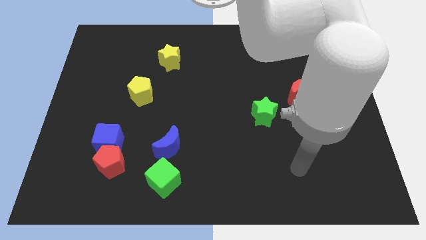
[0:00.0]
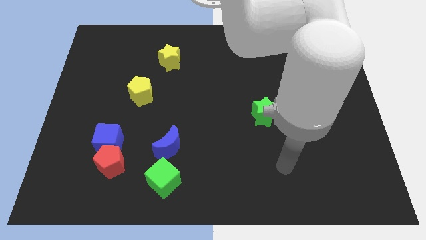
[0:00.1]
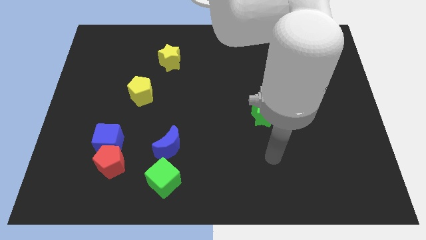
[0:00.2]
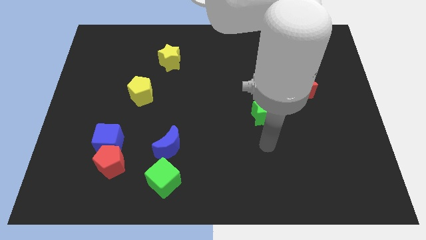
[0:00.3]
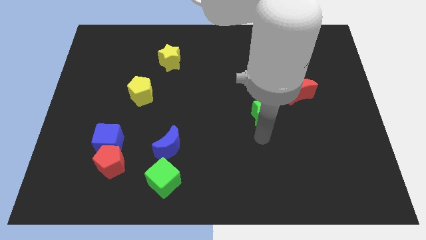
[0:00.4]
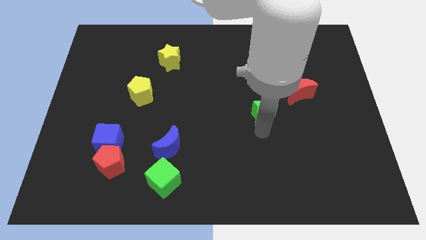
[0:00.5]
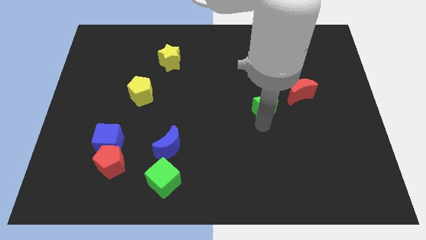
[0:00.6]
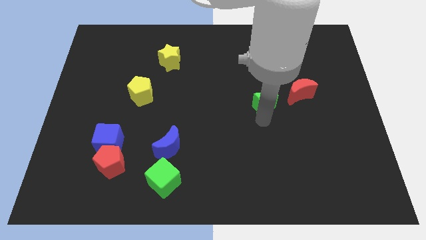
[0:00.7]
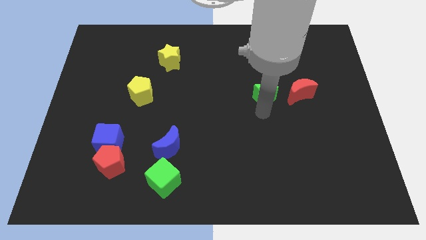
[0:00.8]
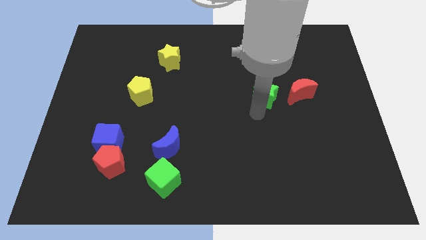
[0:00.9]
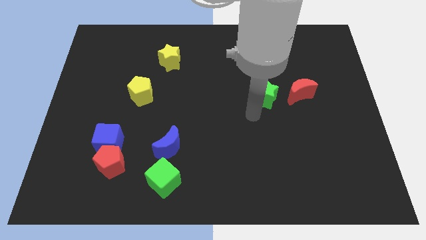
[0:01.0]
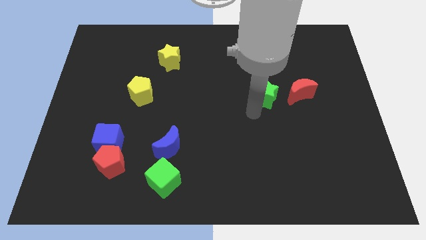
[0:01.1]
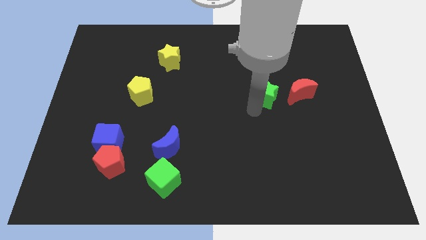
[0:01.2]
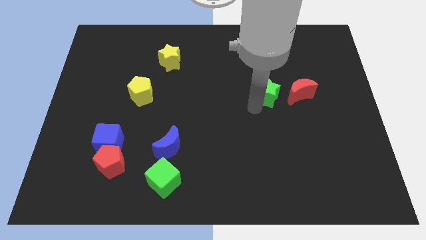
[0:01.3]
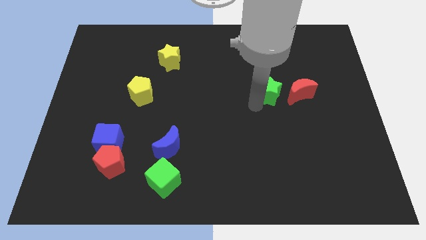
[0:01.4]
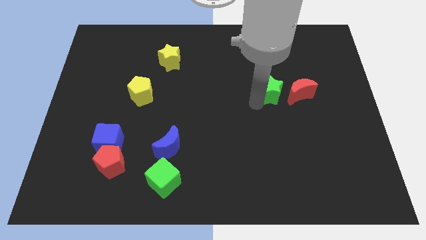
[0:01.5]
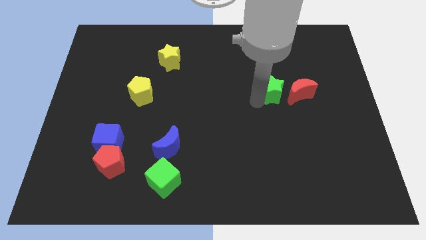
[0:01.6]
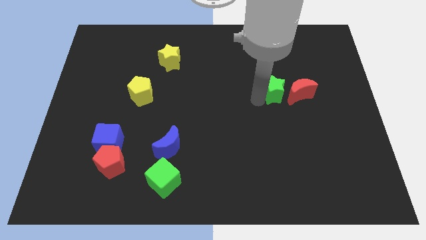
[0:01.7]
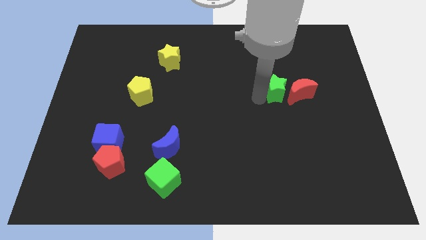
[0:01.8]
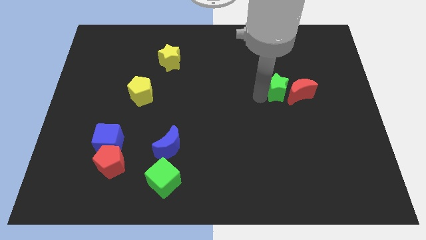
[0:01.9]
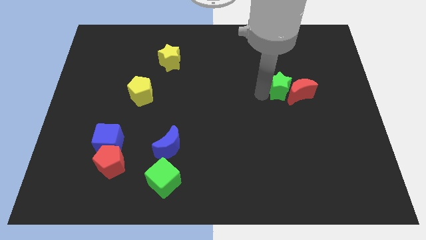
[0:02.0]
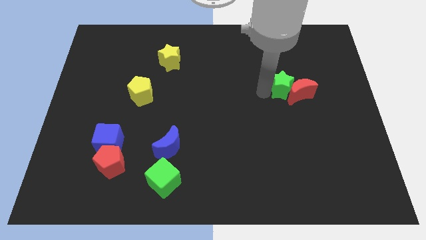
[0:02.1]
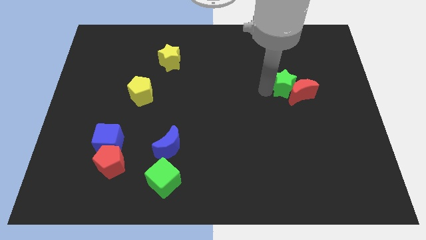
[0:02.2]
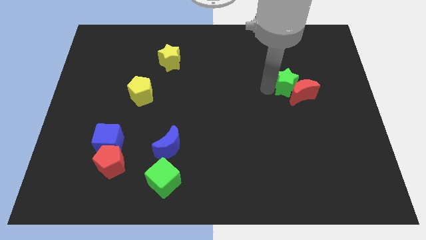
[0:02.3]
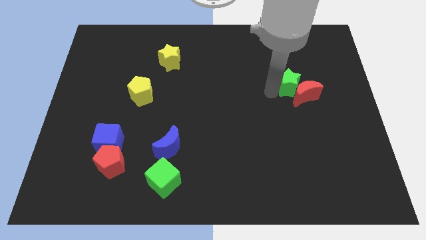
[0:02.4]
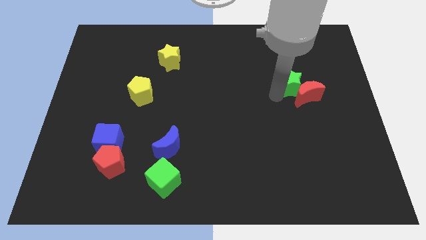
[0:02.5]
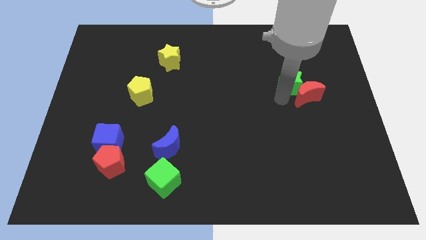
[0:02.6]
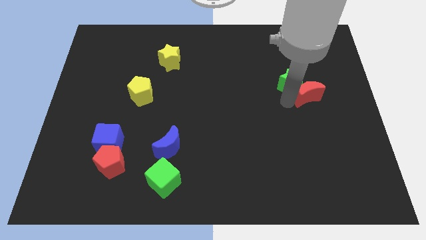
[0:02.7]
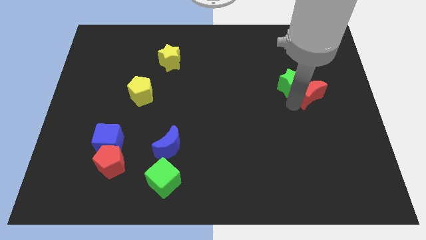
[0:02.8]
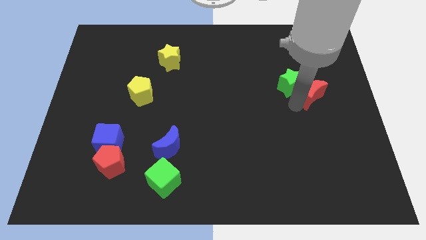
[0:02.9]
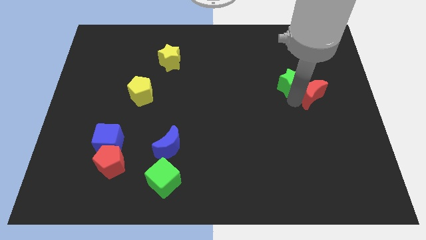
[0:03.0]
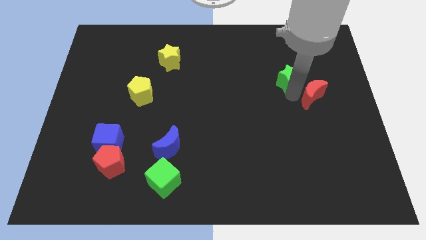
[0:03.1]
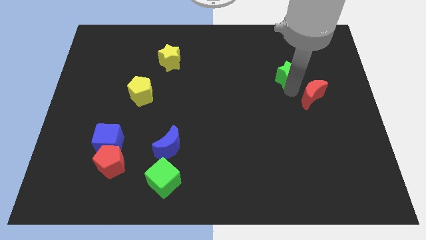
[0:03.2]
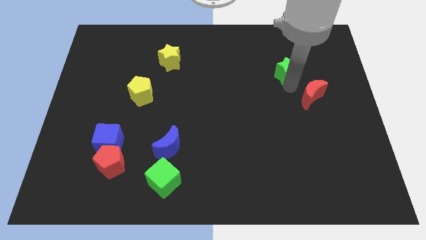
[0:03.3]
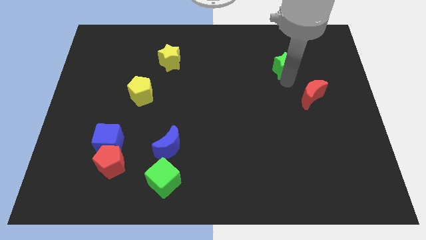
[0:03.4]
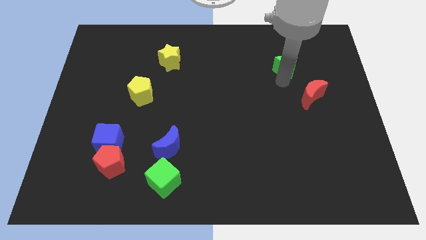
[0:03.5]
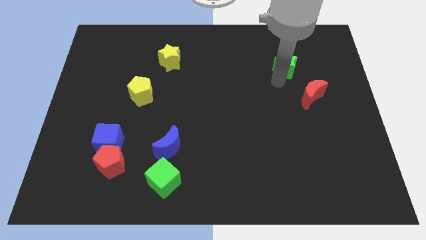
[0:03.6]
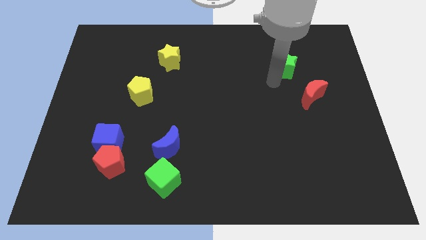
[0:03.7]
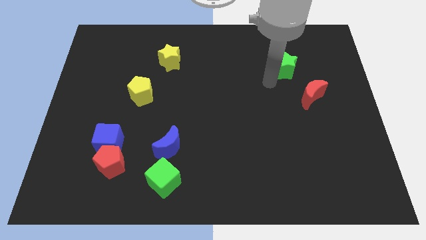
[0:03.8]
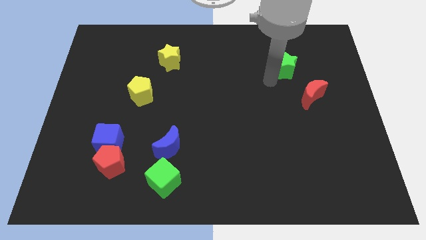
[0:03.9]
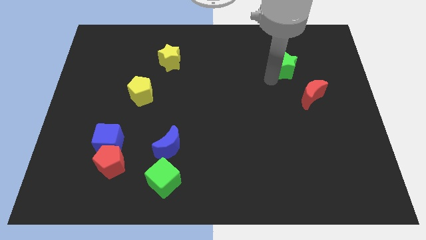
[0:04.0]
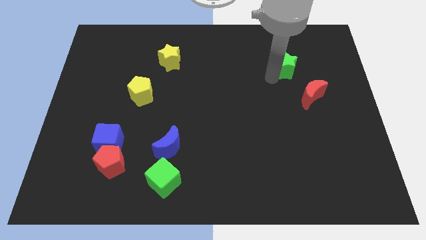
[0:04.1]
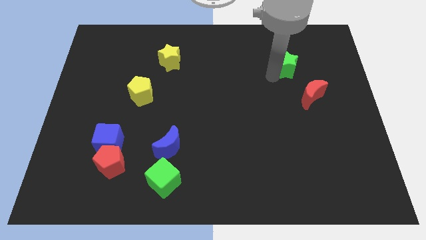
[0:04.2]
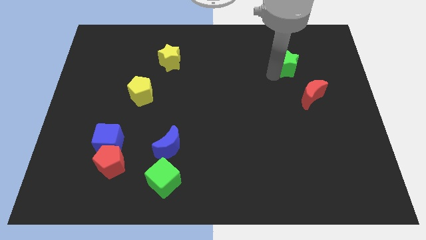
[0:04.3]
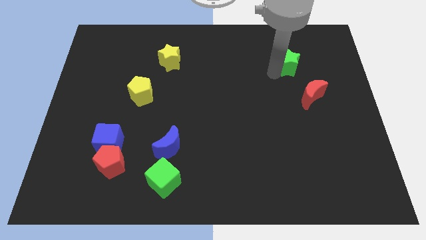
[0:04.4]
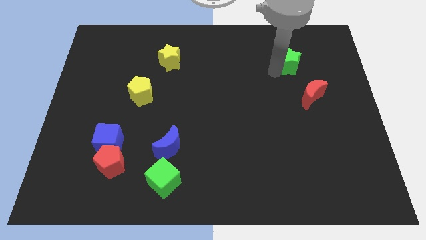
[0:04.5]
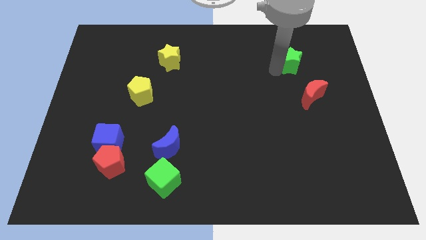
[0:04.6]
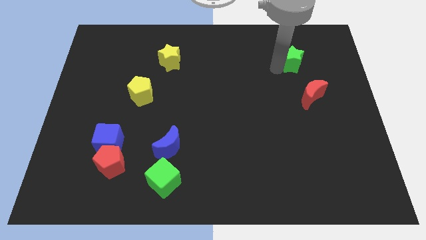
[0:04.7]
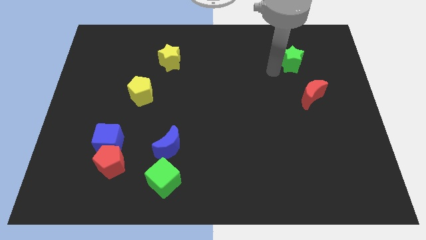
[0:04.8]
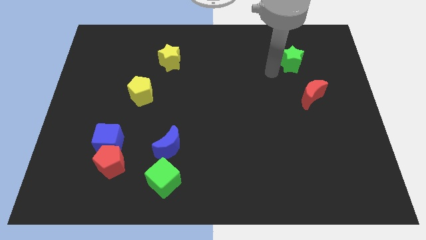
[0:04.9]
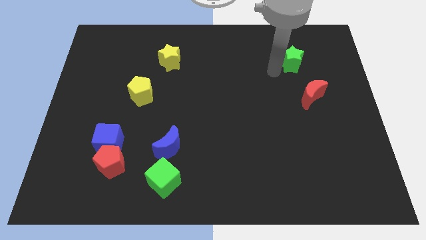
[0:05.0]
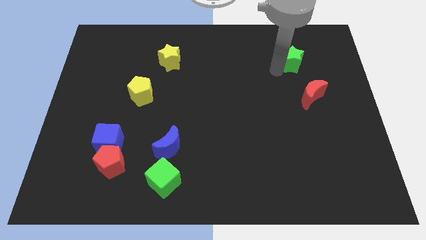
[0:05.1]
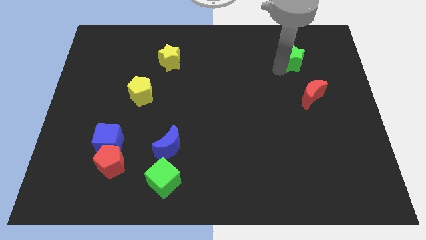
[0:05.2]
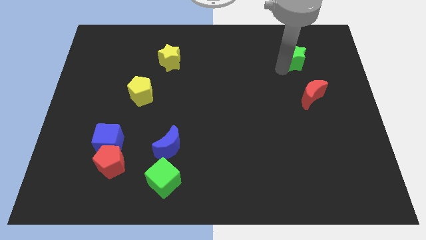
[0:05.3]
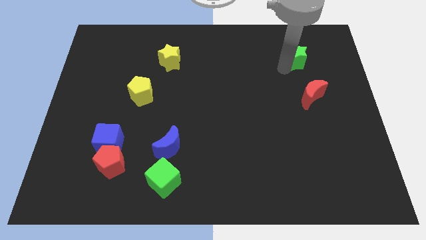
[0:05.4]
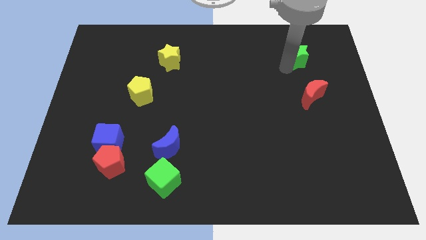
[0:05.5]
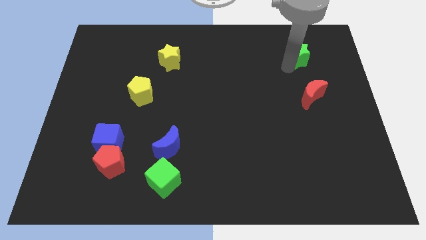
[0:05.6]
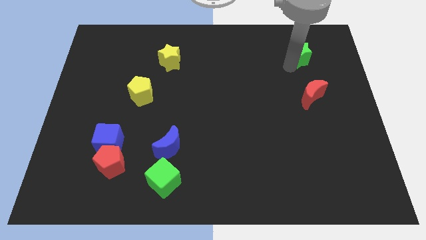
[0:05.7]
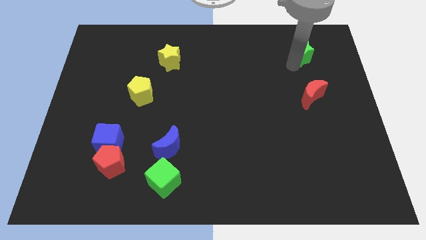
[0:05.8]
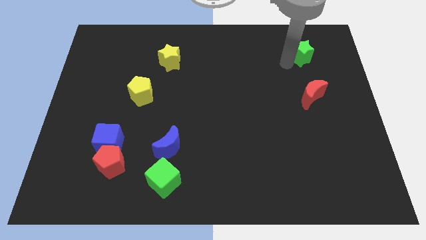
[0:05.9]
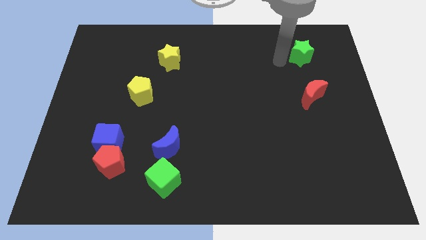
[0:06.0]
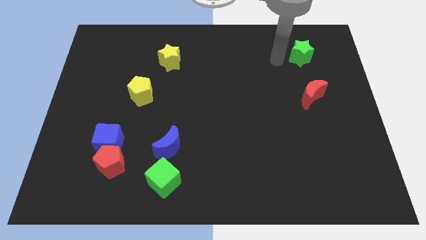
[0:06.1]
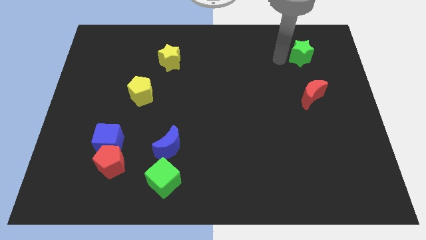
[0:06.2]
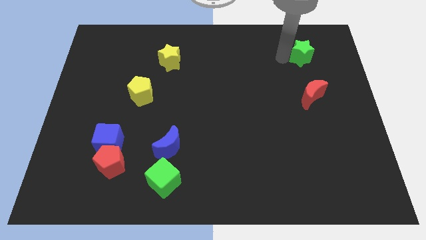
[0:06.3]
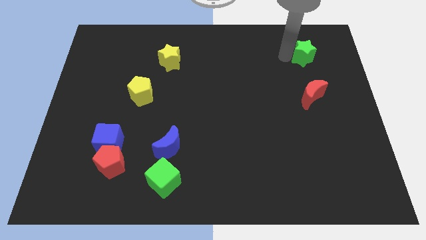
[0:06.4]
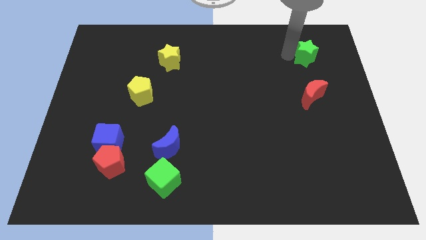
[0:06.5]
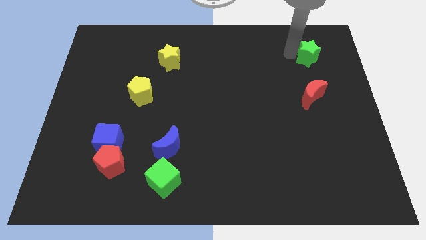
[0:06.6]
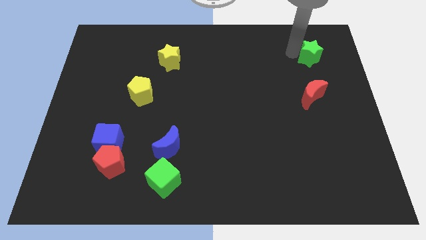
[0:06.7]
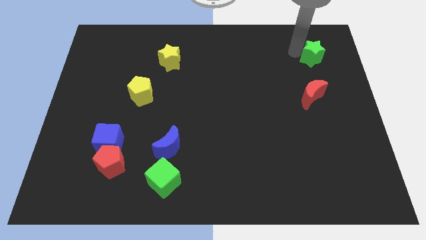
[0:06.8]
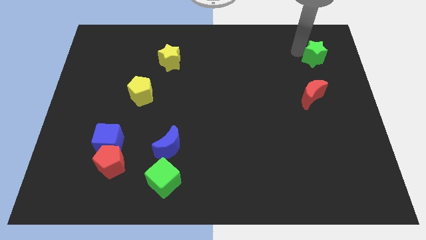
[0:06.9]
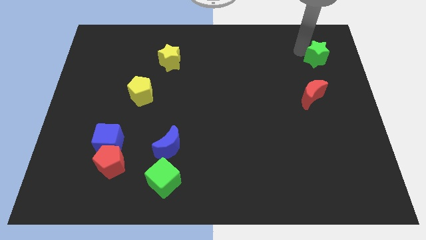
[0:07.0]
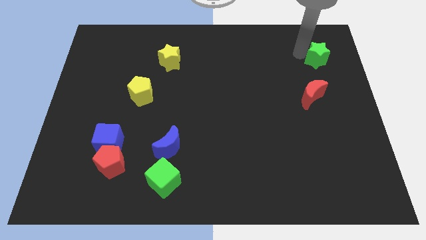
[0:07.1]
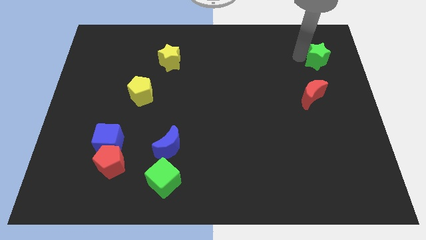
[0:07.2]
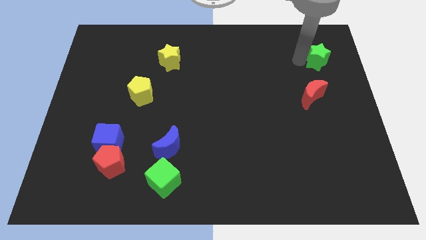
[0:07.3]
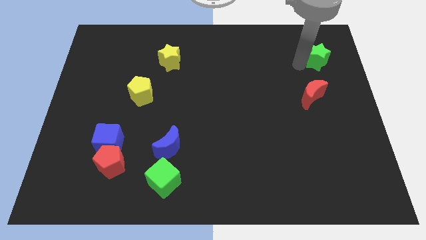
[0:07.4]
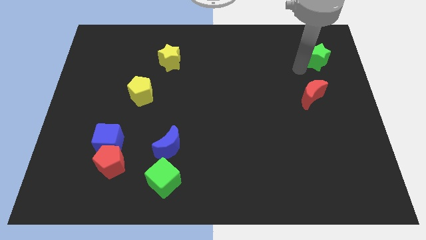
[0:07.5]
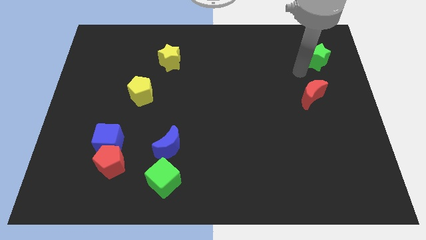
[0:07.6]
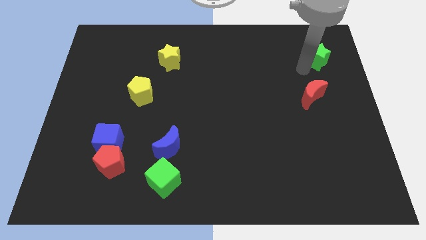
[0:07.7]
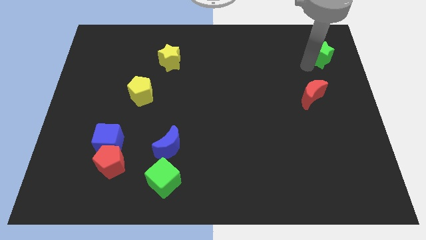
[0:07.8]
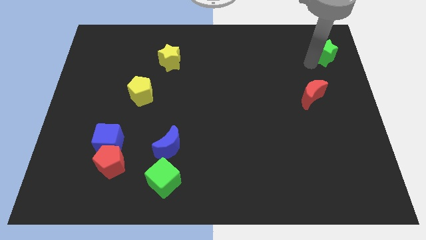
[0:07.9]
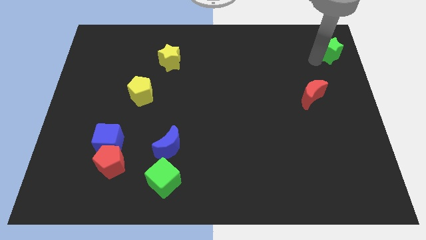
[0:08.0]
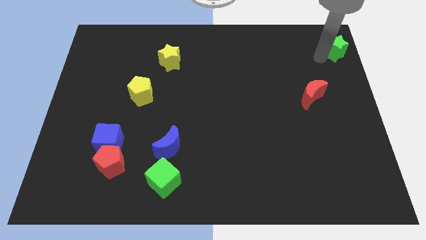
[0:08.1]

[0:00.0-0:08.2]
move the green star to the top right corner
